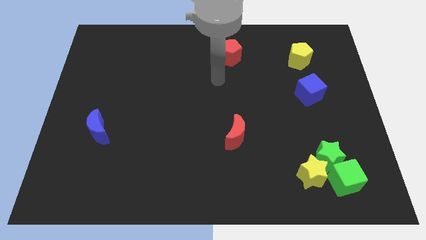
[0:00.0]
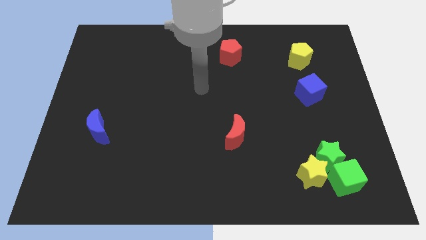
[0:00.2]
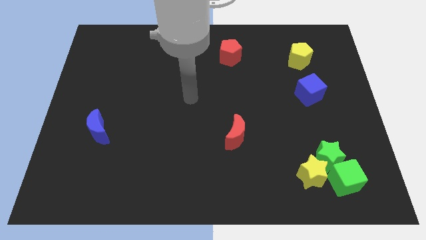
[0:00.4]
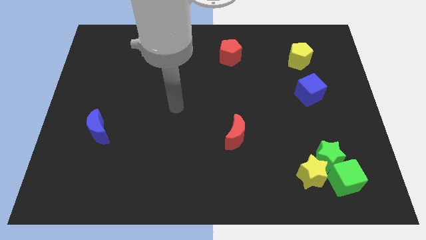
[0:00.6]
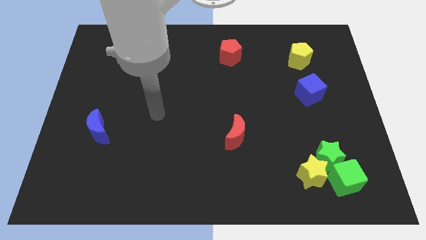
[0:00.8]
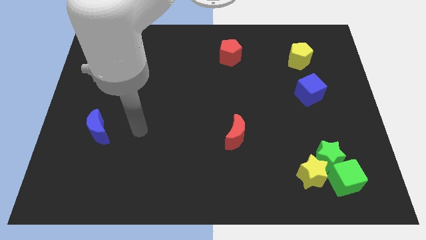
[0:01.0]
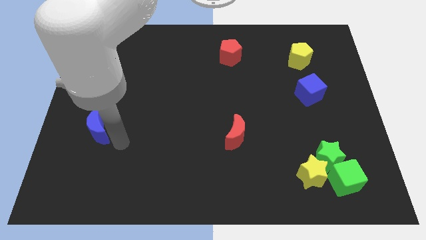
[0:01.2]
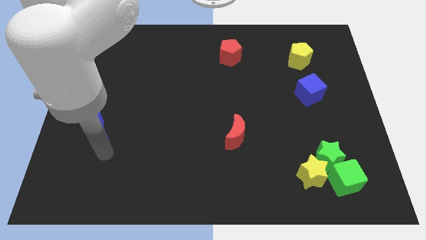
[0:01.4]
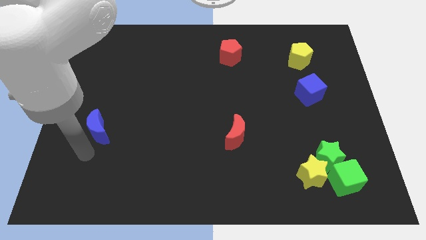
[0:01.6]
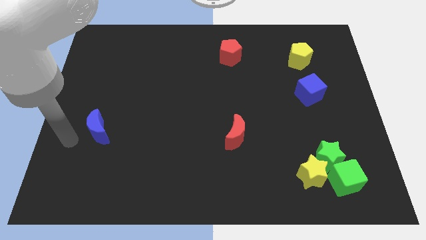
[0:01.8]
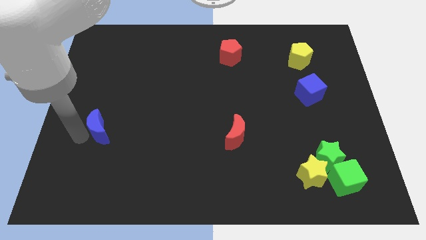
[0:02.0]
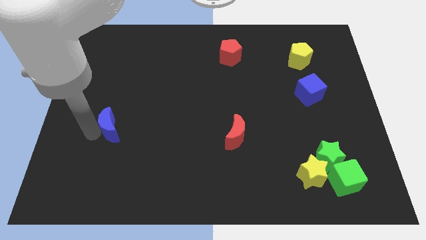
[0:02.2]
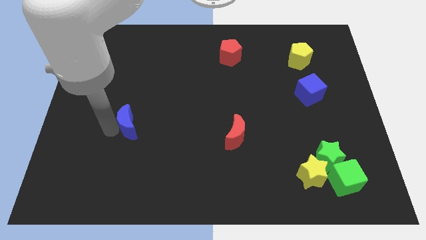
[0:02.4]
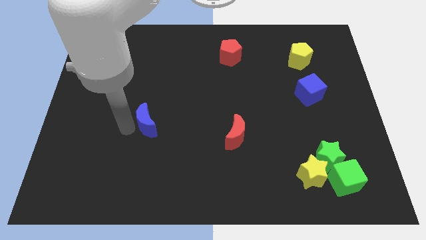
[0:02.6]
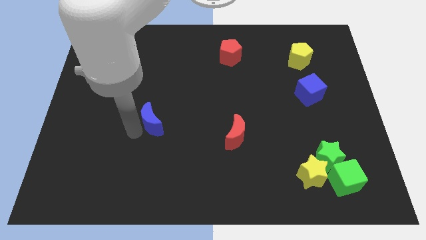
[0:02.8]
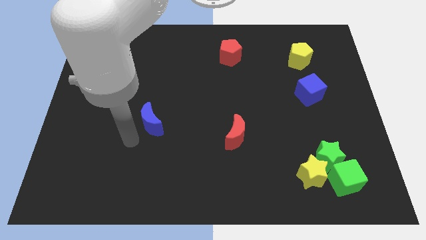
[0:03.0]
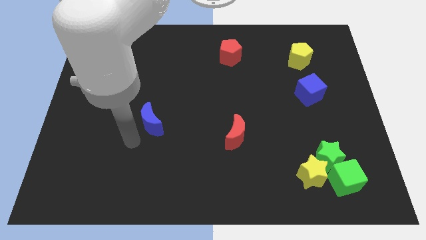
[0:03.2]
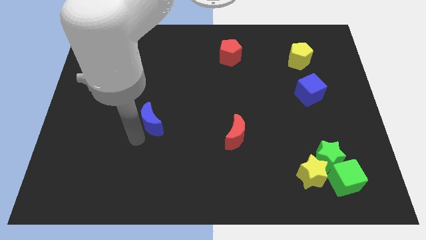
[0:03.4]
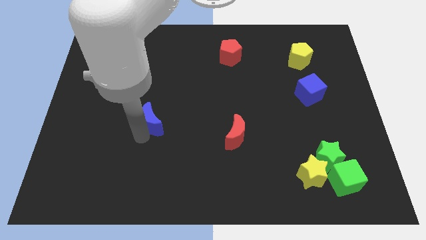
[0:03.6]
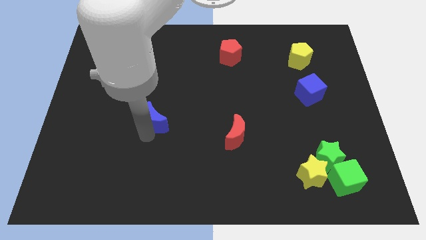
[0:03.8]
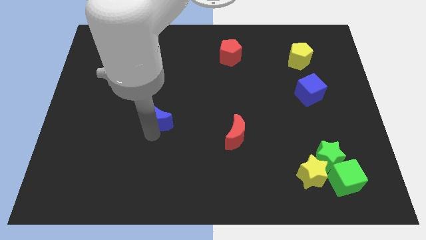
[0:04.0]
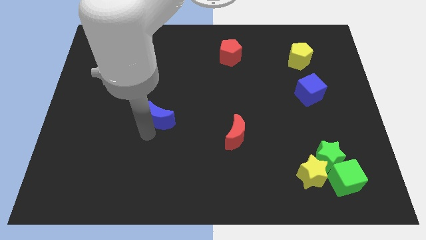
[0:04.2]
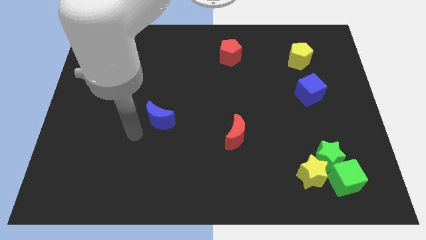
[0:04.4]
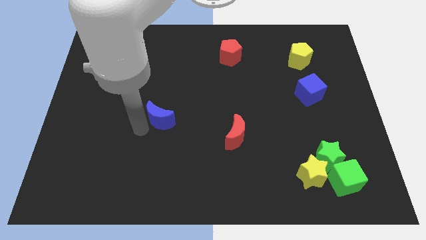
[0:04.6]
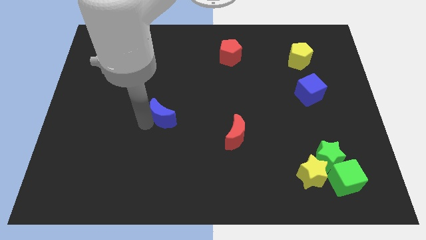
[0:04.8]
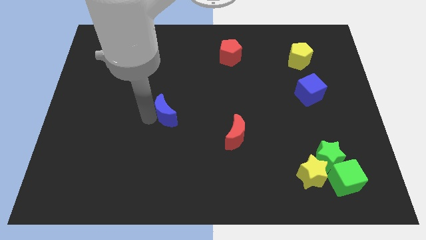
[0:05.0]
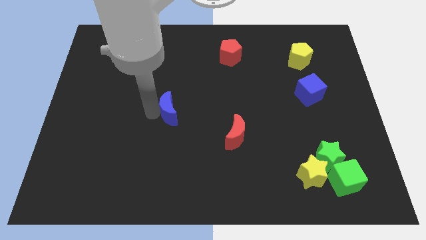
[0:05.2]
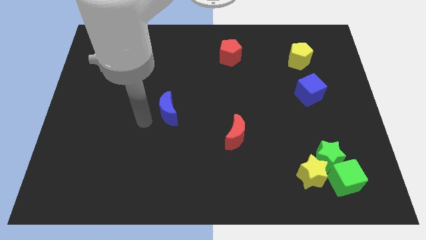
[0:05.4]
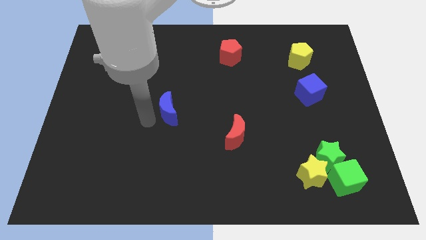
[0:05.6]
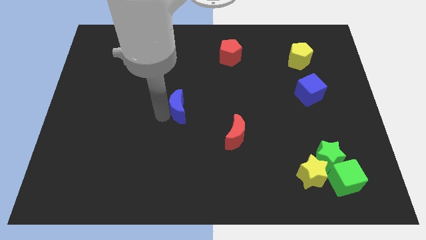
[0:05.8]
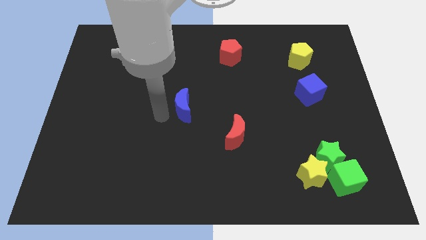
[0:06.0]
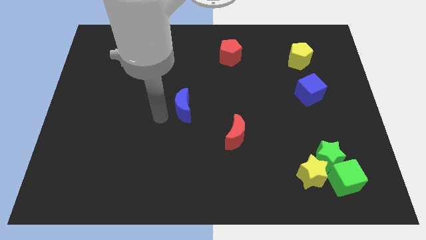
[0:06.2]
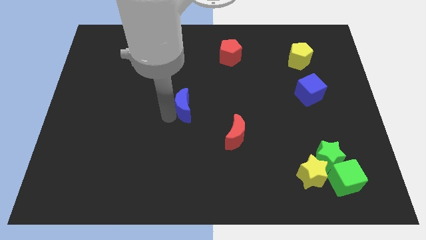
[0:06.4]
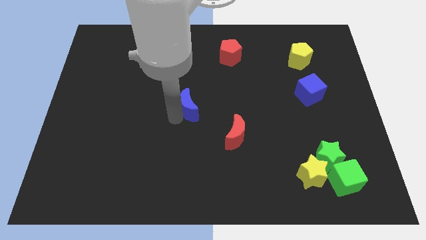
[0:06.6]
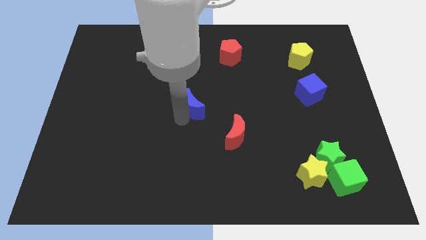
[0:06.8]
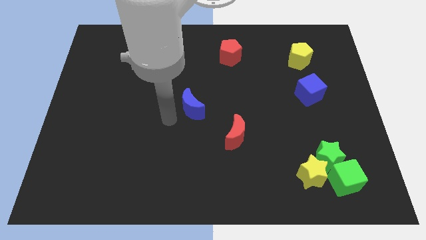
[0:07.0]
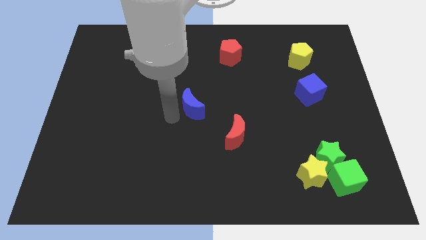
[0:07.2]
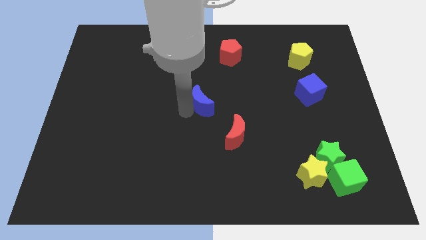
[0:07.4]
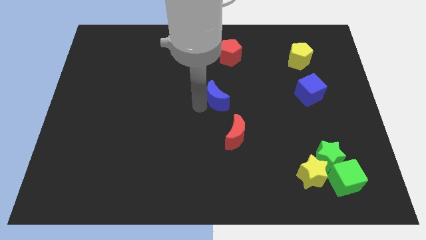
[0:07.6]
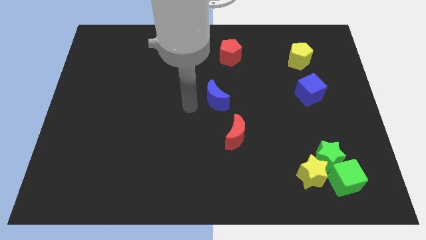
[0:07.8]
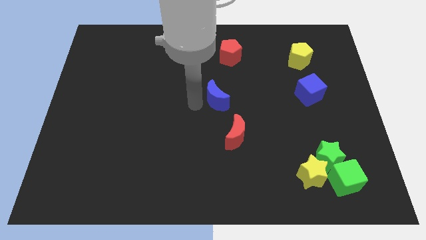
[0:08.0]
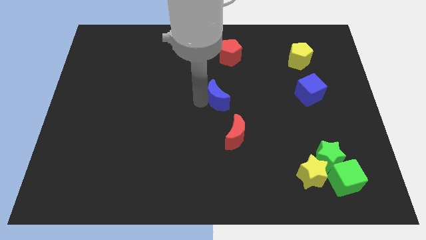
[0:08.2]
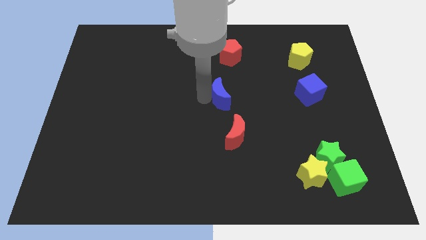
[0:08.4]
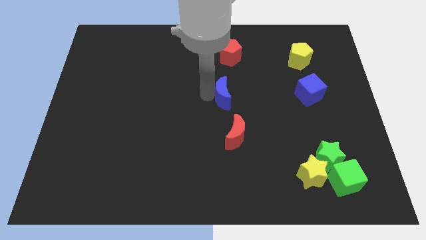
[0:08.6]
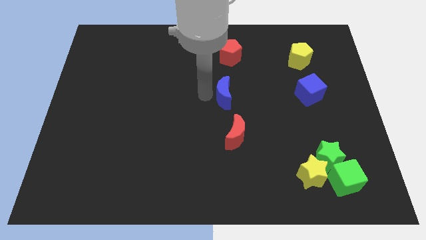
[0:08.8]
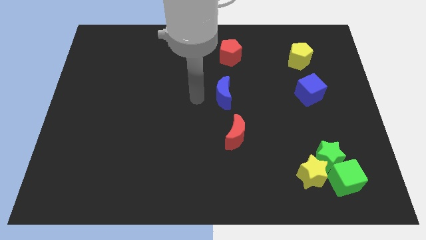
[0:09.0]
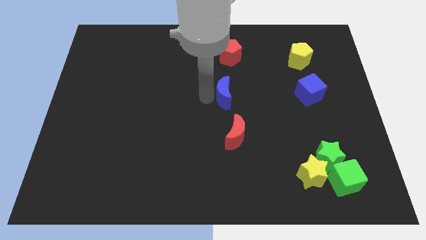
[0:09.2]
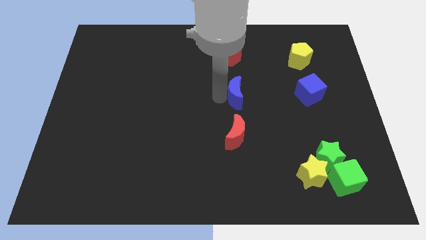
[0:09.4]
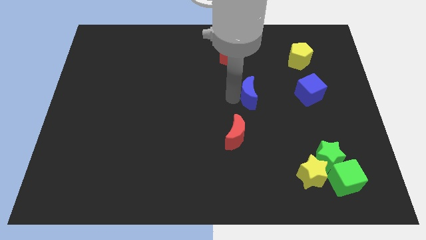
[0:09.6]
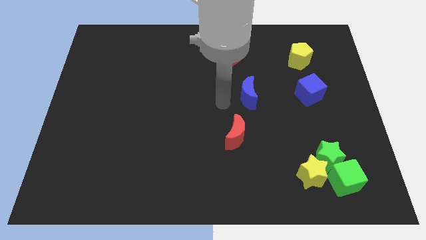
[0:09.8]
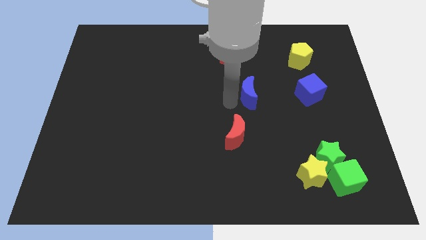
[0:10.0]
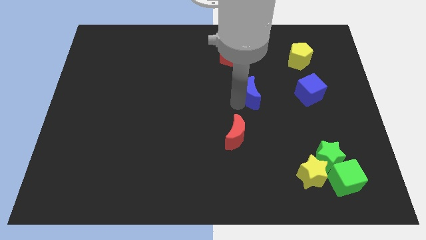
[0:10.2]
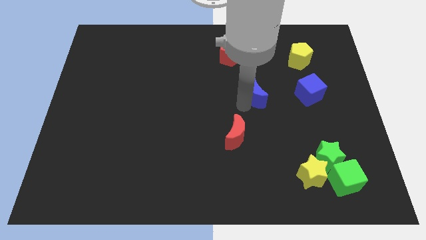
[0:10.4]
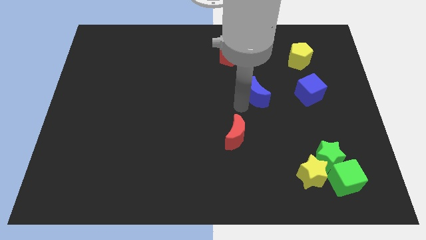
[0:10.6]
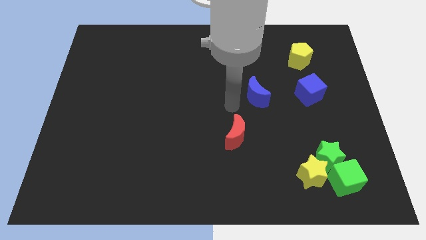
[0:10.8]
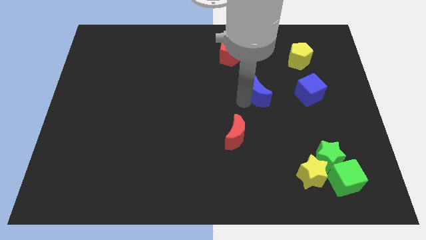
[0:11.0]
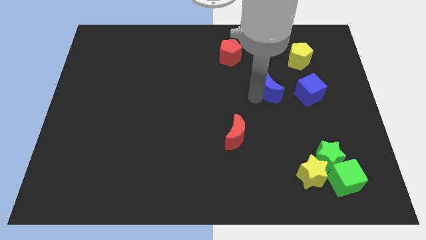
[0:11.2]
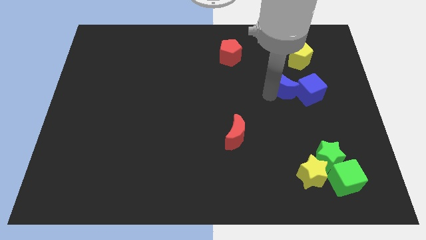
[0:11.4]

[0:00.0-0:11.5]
slide the blue moon to the top left of the blue cube
